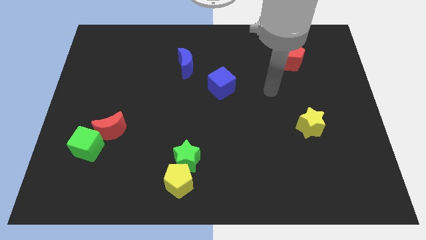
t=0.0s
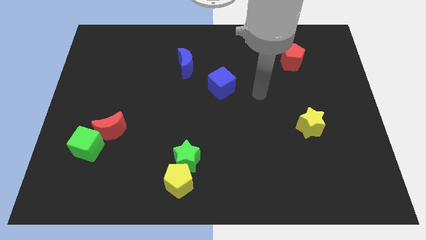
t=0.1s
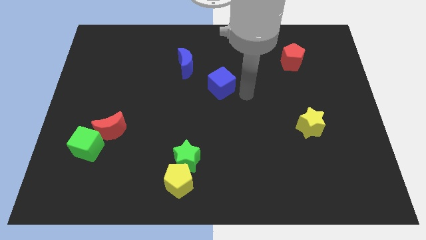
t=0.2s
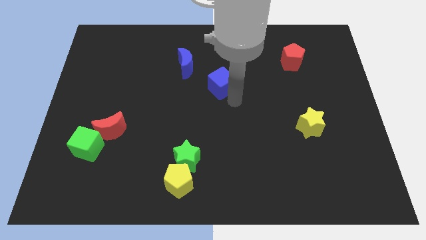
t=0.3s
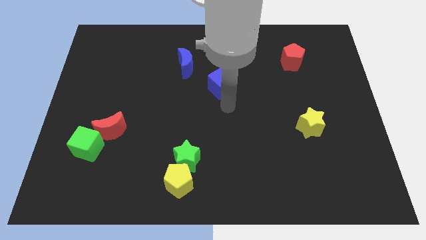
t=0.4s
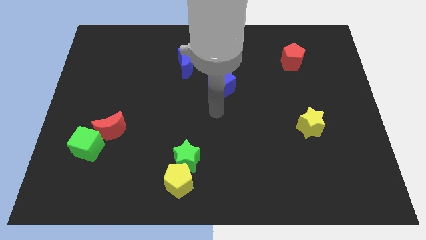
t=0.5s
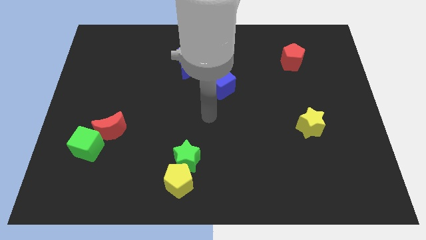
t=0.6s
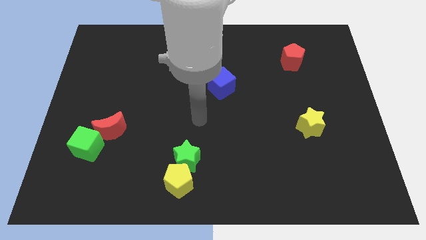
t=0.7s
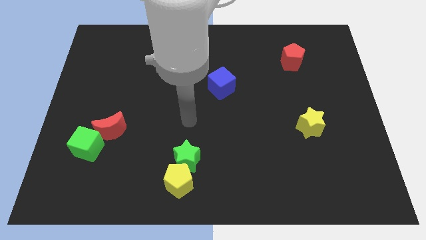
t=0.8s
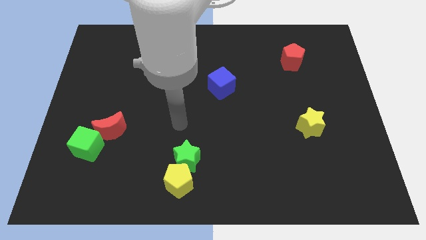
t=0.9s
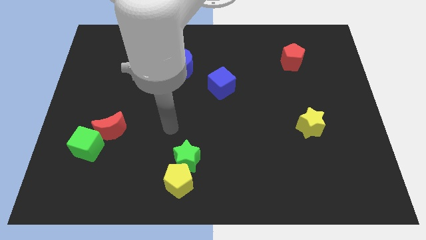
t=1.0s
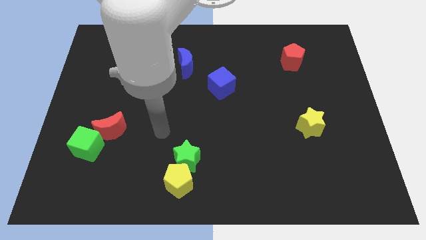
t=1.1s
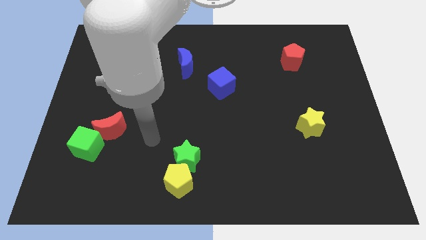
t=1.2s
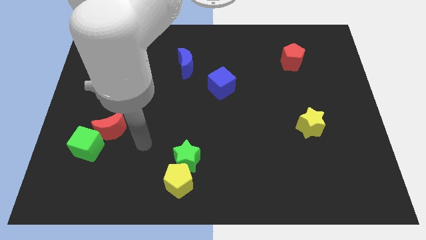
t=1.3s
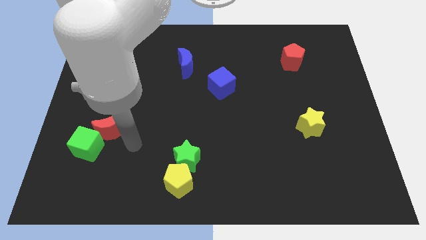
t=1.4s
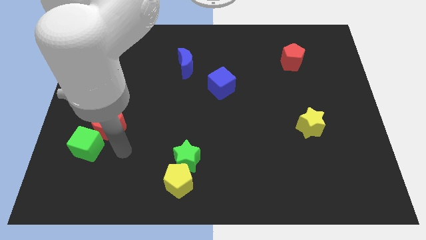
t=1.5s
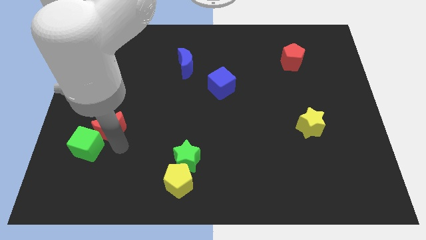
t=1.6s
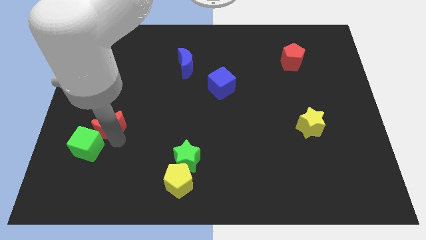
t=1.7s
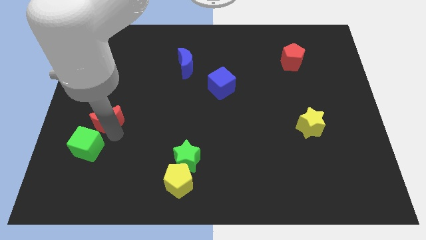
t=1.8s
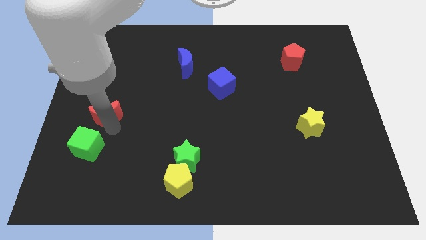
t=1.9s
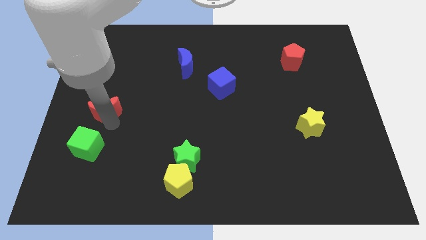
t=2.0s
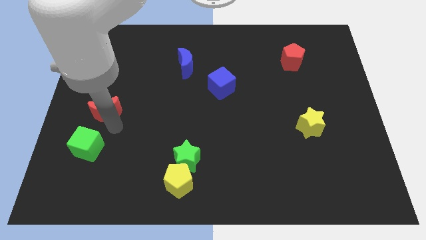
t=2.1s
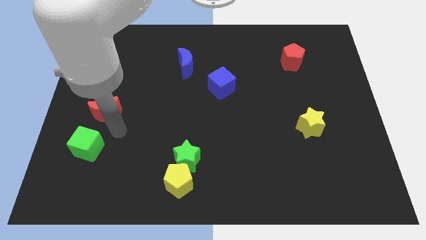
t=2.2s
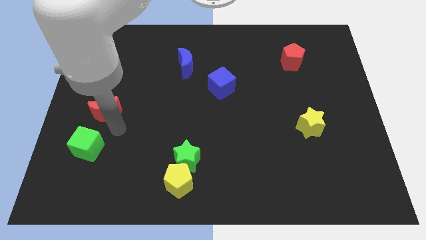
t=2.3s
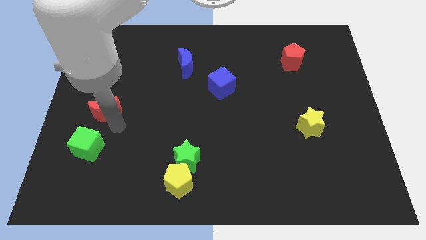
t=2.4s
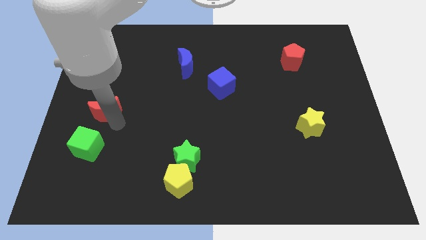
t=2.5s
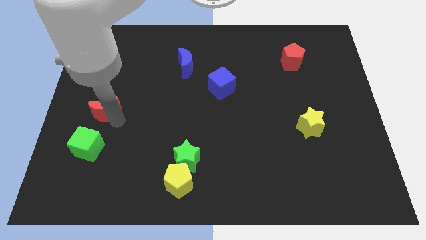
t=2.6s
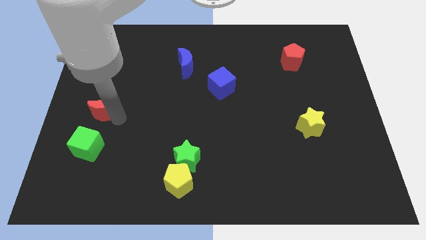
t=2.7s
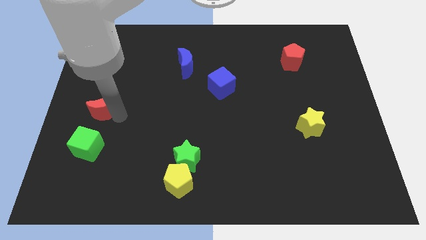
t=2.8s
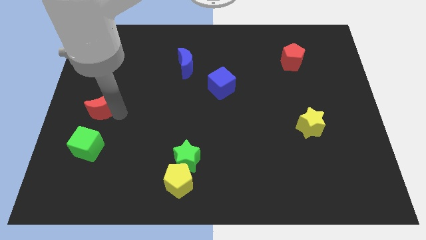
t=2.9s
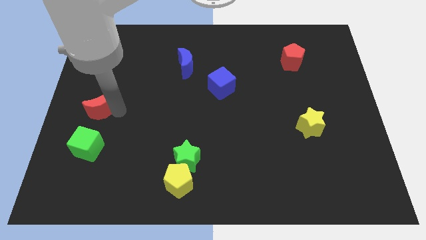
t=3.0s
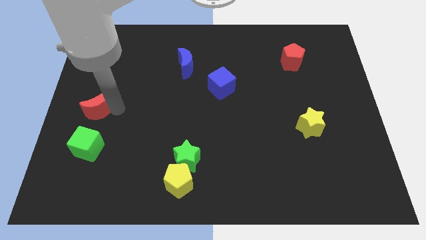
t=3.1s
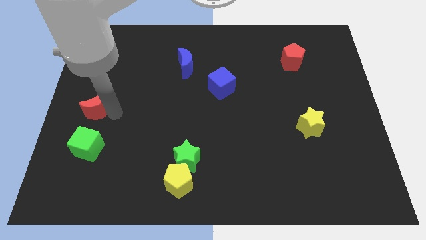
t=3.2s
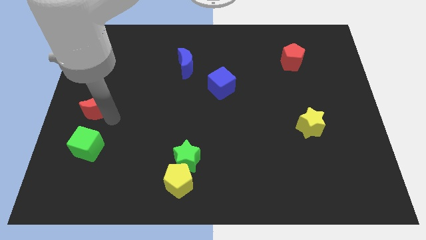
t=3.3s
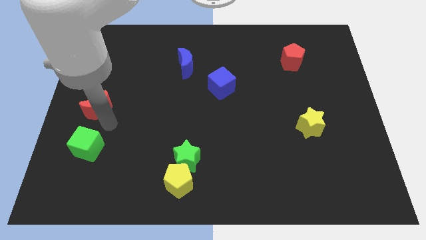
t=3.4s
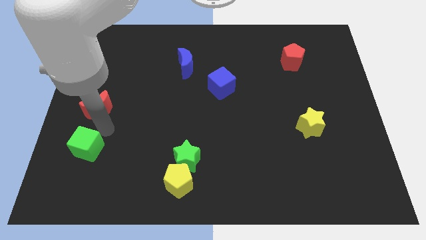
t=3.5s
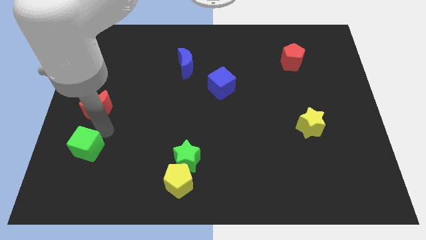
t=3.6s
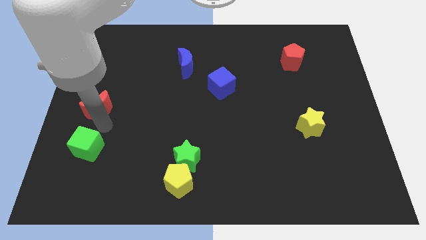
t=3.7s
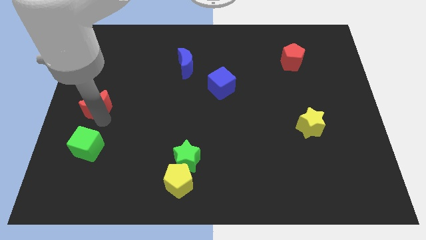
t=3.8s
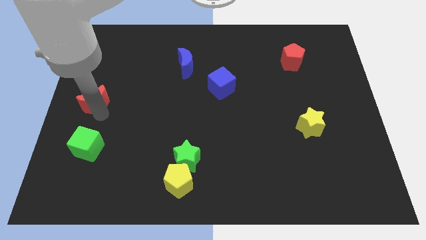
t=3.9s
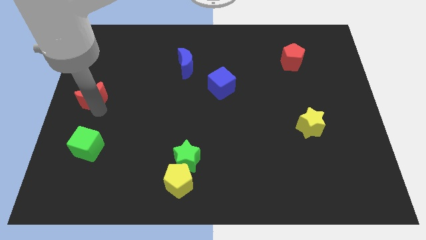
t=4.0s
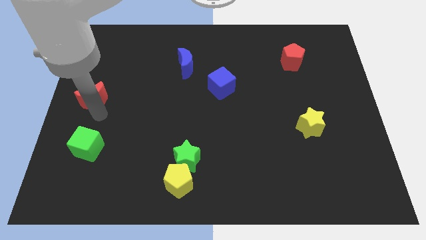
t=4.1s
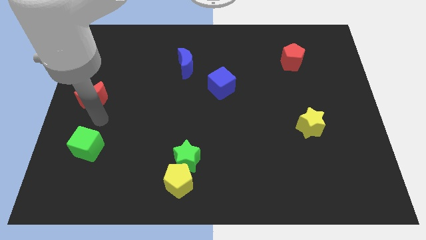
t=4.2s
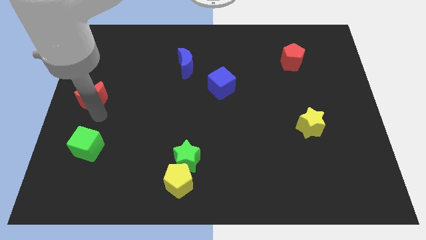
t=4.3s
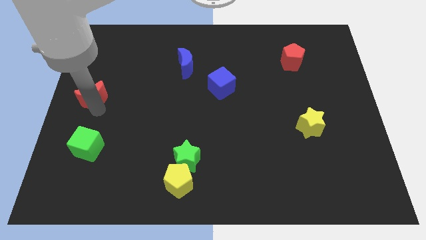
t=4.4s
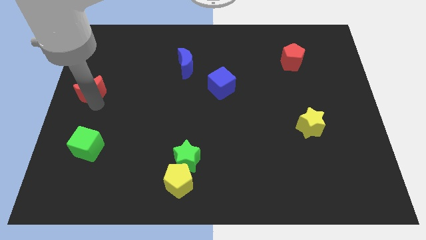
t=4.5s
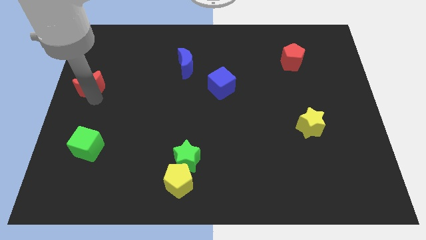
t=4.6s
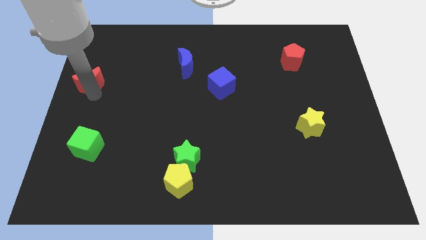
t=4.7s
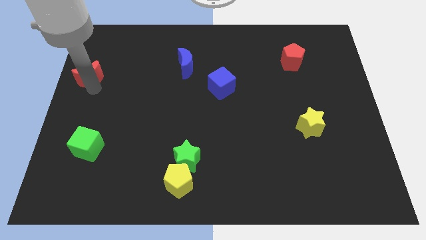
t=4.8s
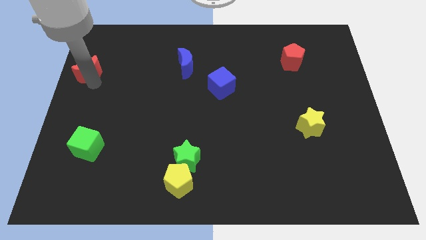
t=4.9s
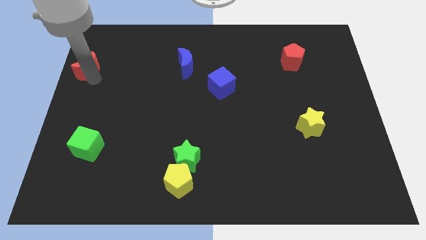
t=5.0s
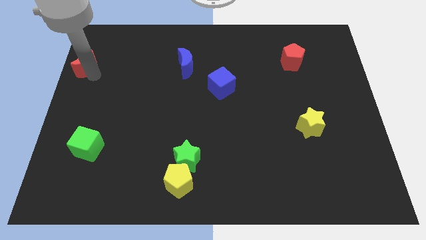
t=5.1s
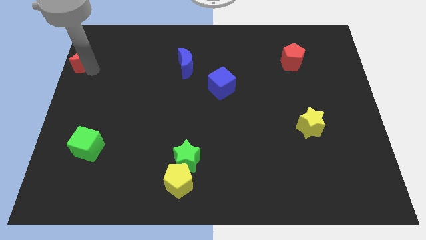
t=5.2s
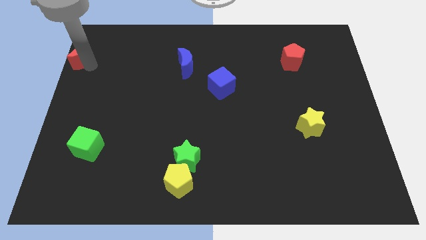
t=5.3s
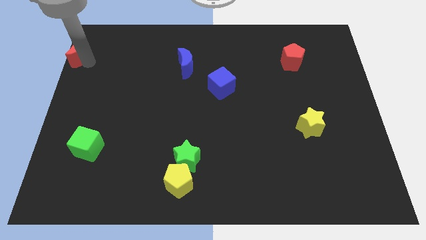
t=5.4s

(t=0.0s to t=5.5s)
push the red moon to the top left
